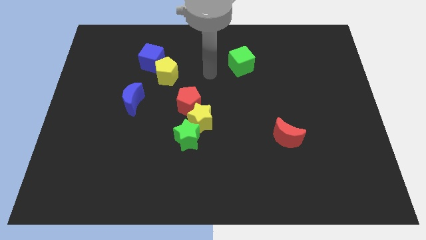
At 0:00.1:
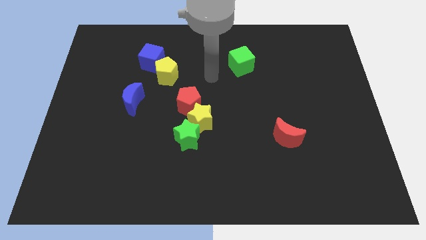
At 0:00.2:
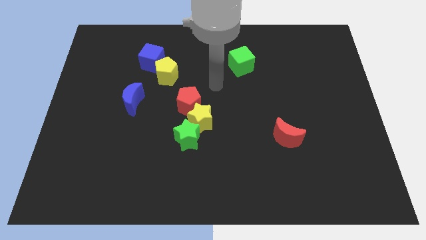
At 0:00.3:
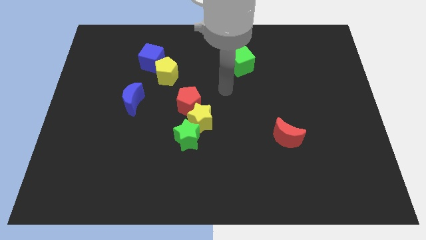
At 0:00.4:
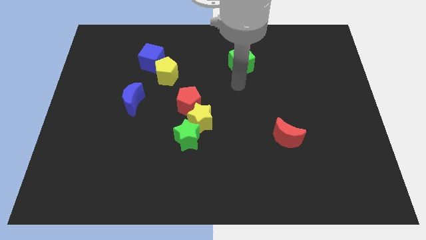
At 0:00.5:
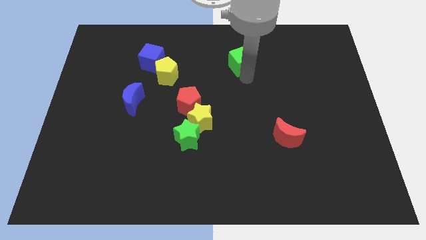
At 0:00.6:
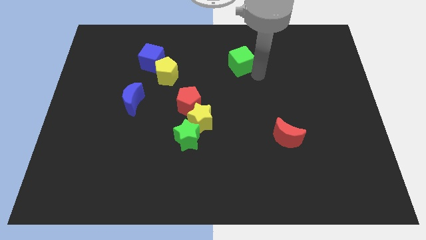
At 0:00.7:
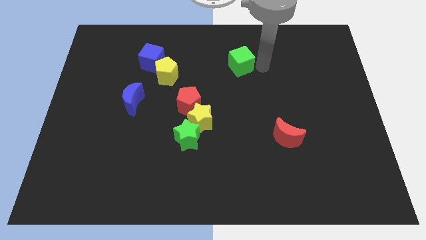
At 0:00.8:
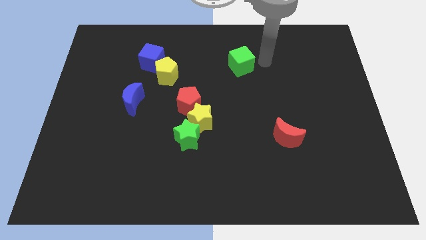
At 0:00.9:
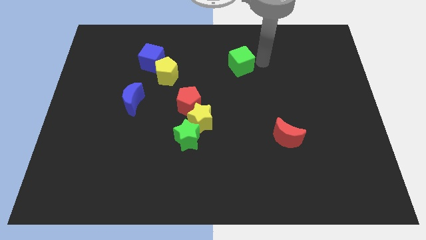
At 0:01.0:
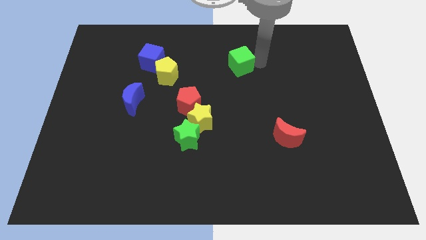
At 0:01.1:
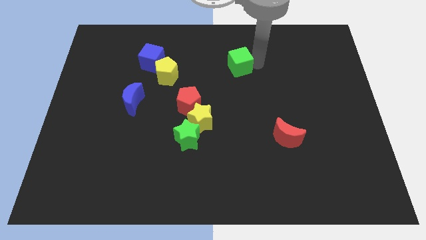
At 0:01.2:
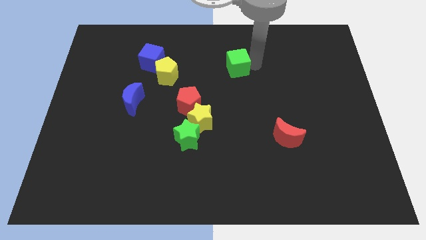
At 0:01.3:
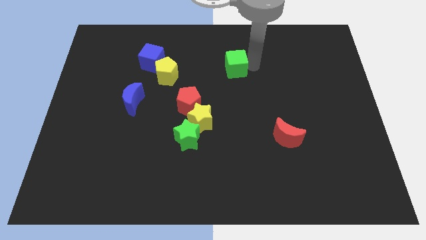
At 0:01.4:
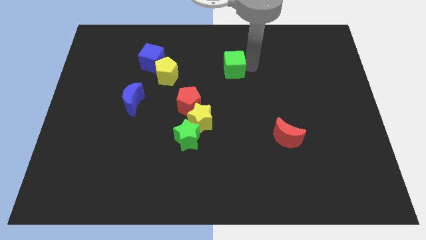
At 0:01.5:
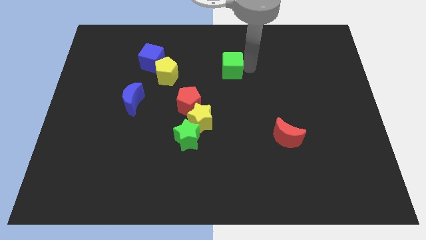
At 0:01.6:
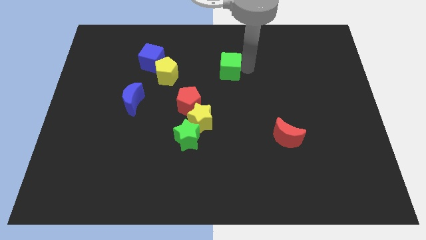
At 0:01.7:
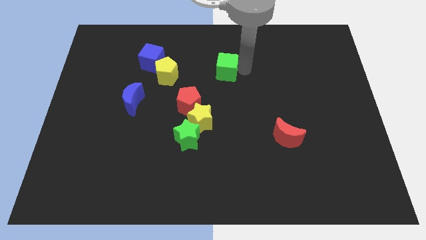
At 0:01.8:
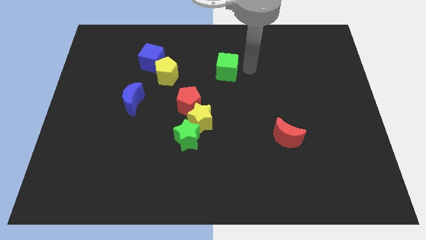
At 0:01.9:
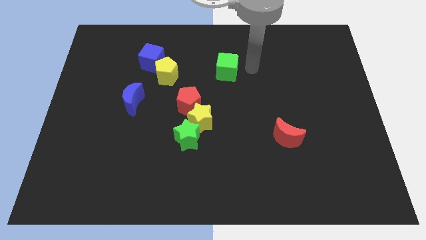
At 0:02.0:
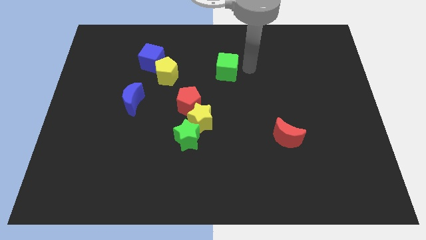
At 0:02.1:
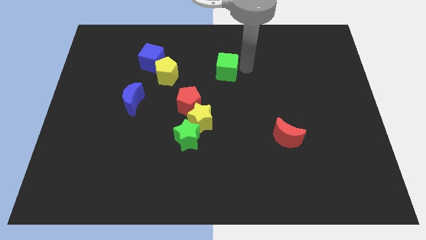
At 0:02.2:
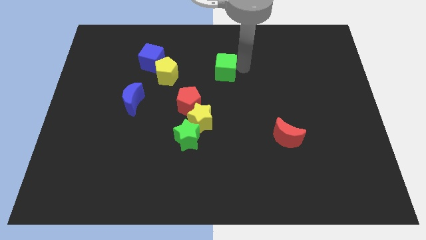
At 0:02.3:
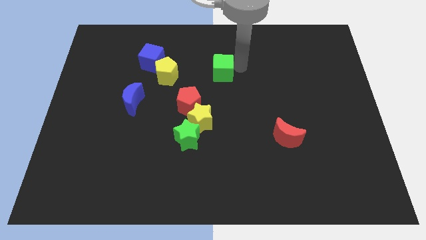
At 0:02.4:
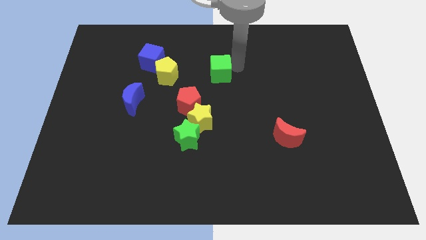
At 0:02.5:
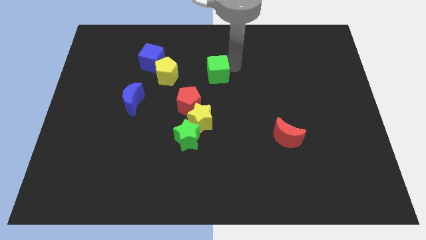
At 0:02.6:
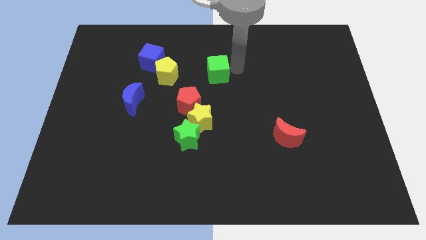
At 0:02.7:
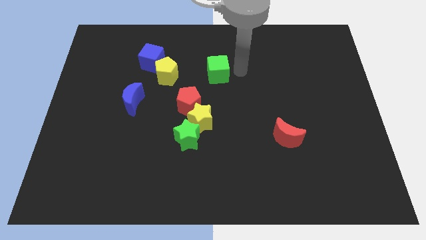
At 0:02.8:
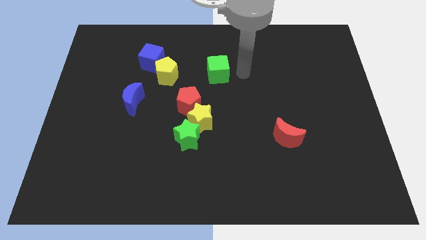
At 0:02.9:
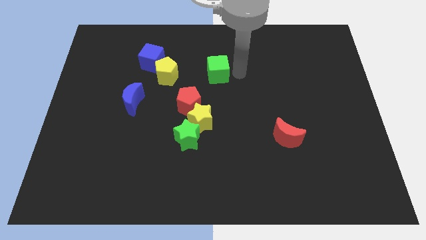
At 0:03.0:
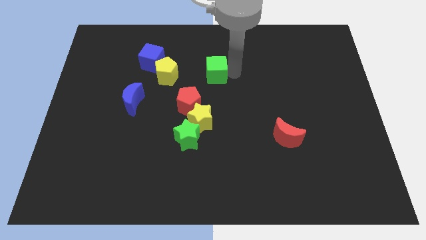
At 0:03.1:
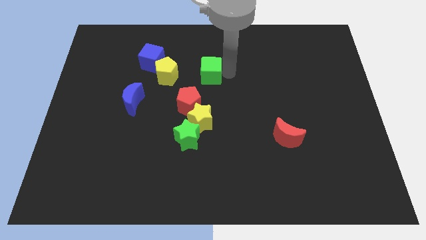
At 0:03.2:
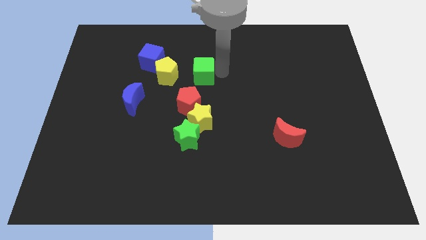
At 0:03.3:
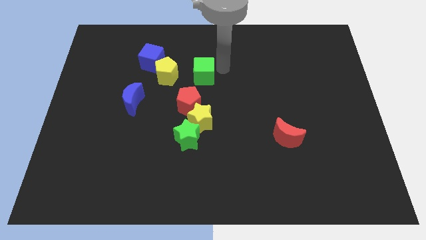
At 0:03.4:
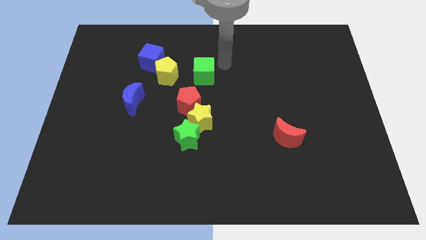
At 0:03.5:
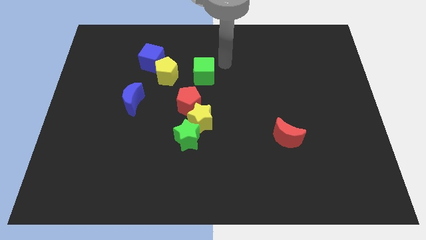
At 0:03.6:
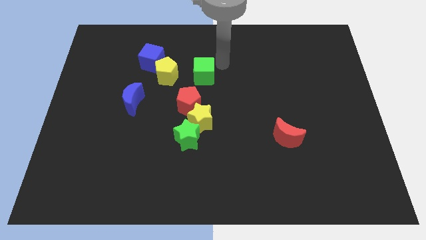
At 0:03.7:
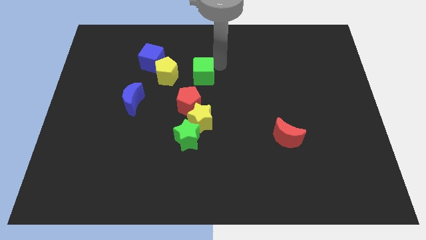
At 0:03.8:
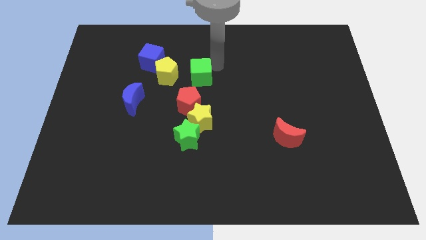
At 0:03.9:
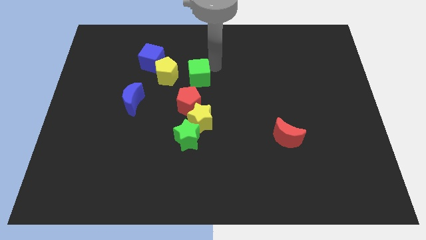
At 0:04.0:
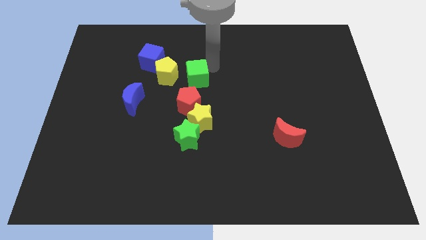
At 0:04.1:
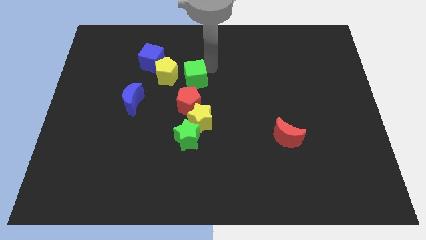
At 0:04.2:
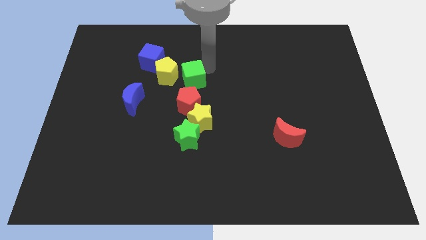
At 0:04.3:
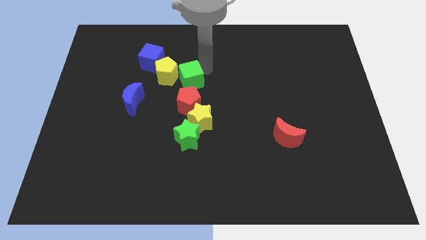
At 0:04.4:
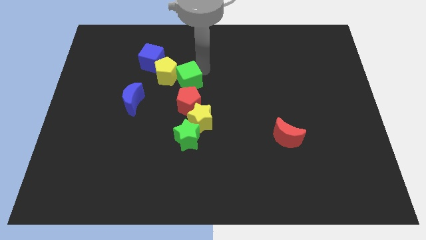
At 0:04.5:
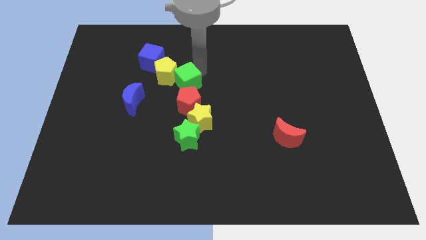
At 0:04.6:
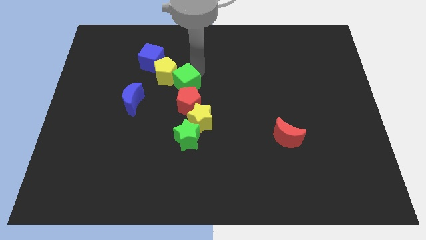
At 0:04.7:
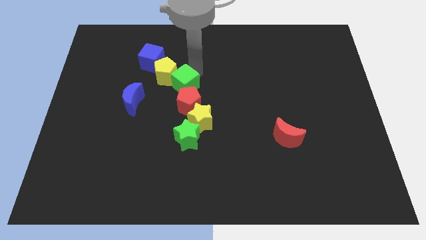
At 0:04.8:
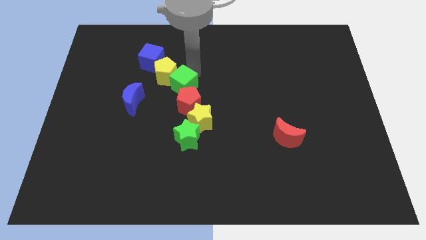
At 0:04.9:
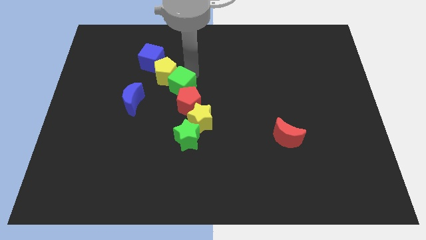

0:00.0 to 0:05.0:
slide the green cube to the bottom of the yellow pentagon

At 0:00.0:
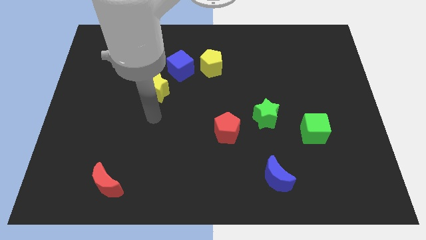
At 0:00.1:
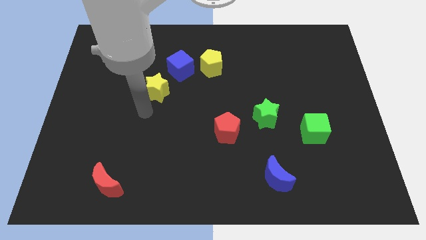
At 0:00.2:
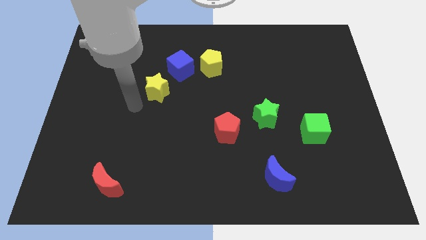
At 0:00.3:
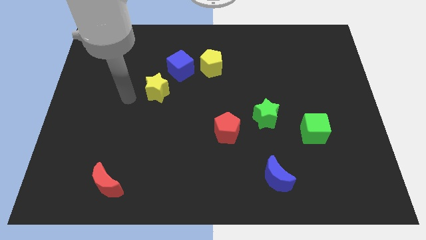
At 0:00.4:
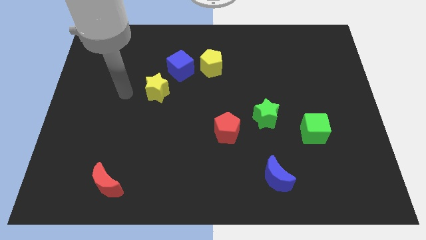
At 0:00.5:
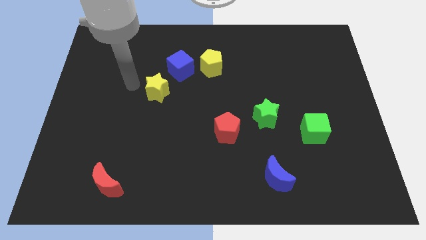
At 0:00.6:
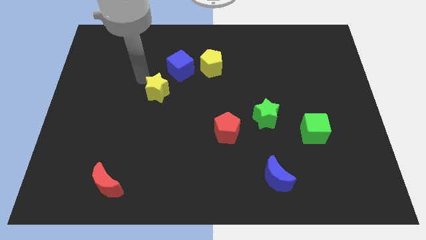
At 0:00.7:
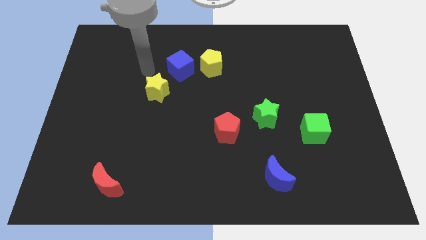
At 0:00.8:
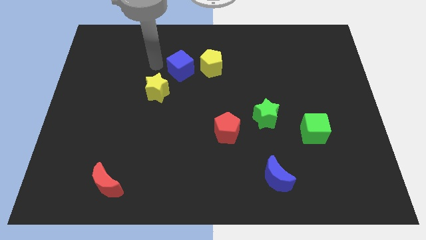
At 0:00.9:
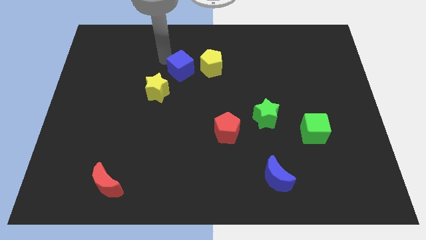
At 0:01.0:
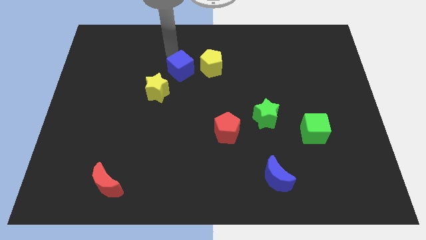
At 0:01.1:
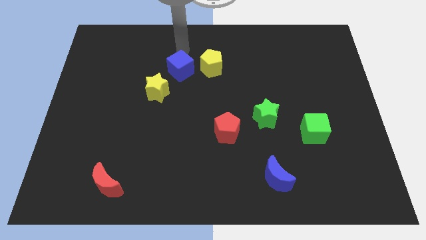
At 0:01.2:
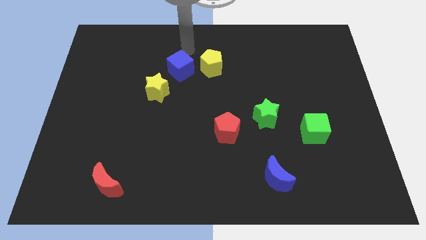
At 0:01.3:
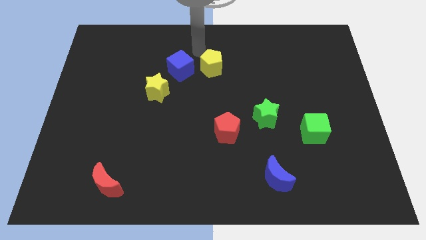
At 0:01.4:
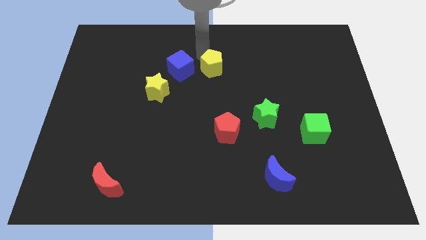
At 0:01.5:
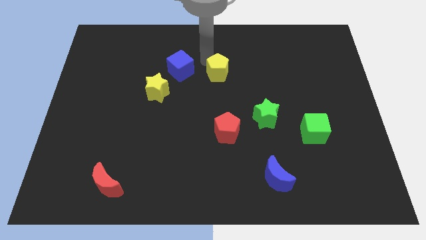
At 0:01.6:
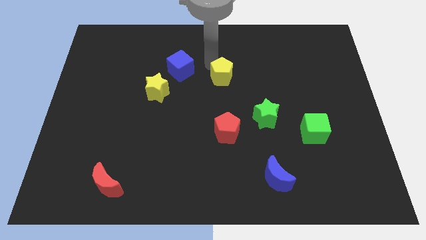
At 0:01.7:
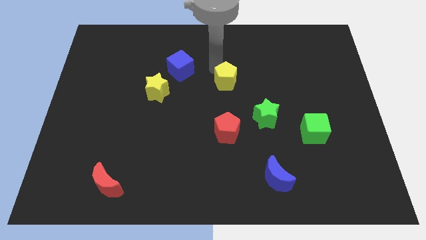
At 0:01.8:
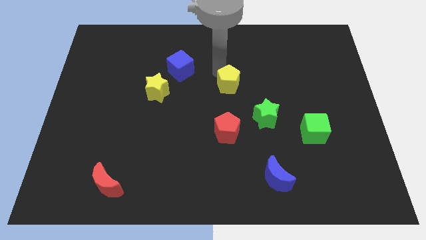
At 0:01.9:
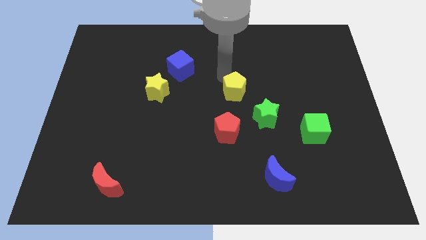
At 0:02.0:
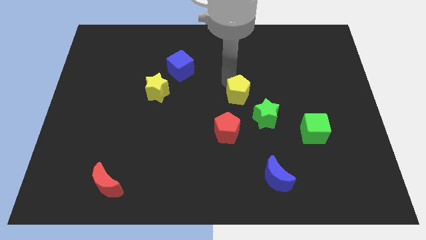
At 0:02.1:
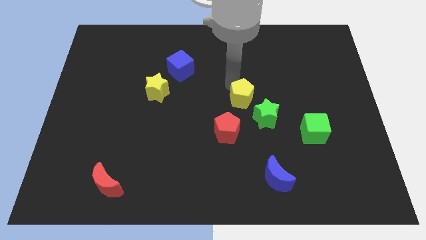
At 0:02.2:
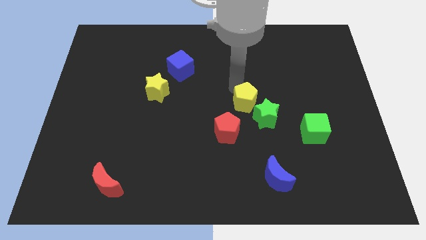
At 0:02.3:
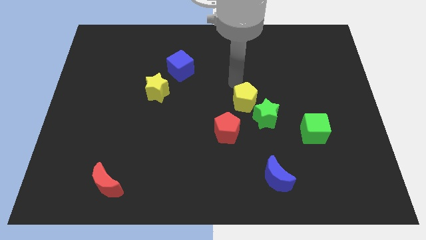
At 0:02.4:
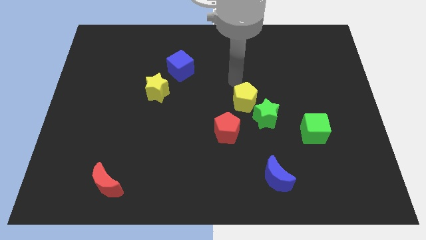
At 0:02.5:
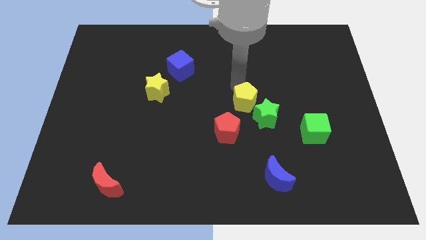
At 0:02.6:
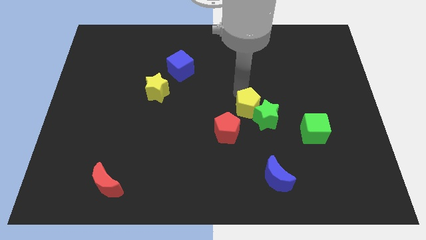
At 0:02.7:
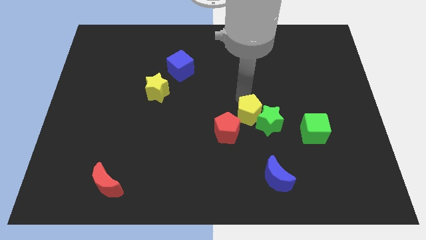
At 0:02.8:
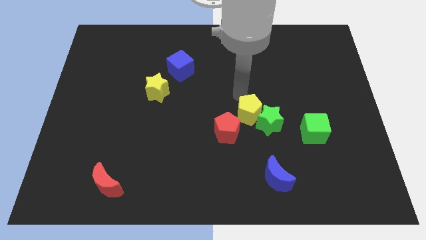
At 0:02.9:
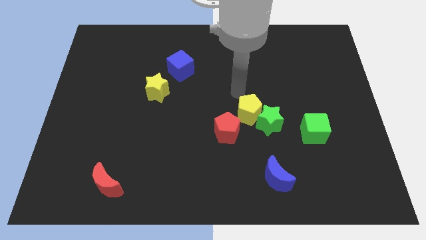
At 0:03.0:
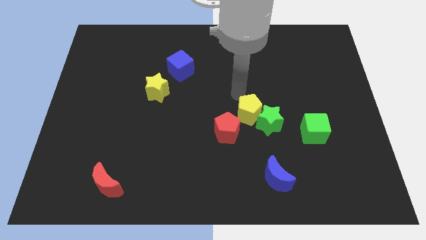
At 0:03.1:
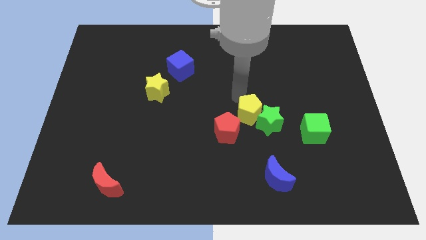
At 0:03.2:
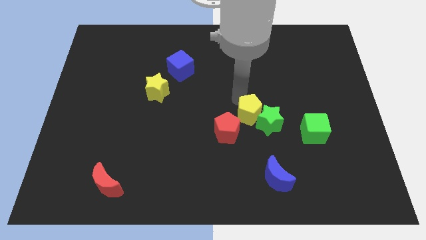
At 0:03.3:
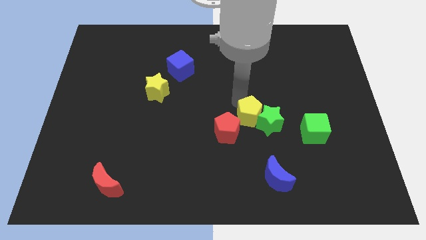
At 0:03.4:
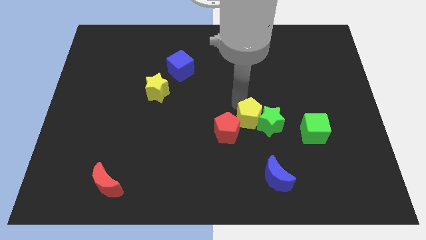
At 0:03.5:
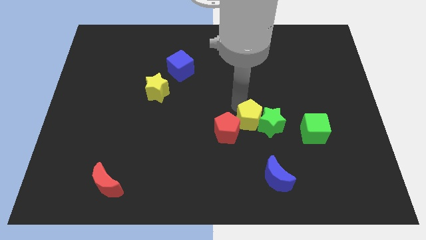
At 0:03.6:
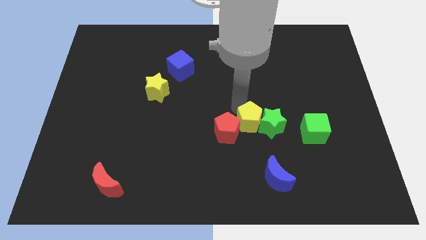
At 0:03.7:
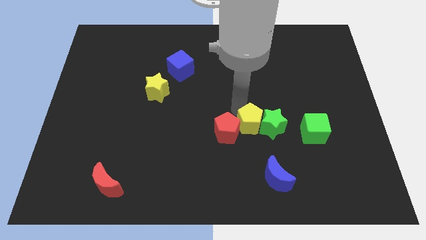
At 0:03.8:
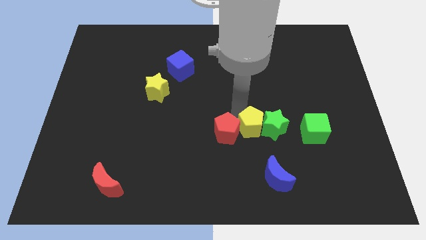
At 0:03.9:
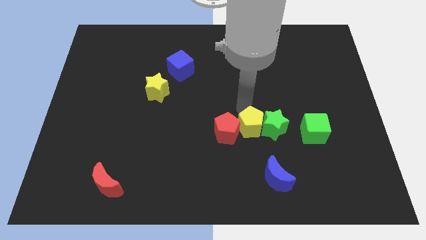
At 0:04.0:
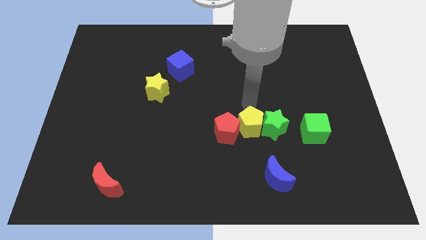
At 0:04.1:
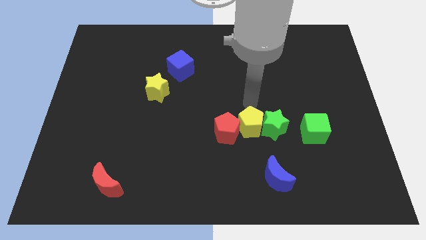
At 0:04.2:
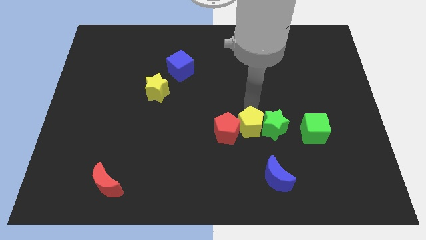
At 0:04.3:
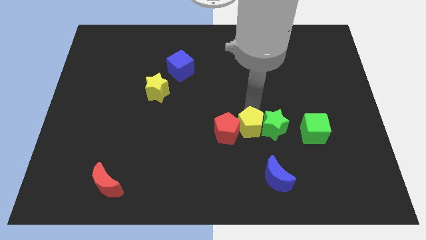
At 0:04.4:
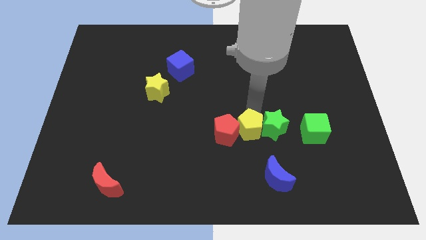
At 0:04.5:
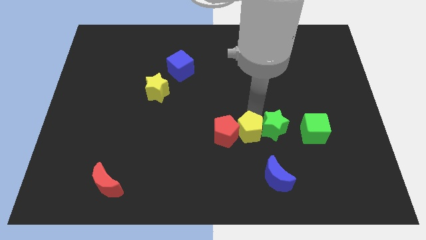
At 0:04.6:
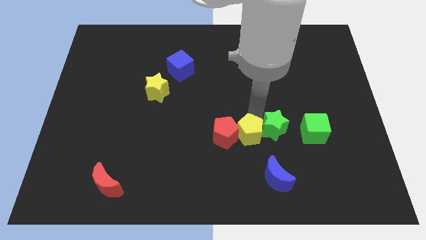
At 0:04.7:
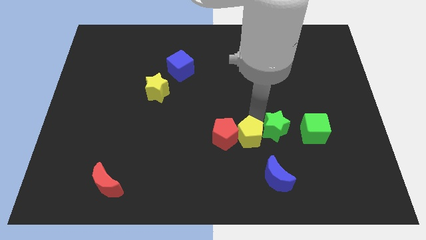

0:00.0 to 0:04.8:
slide the yellow pentagon to the top left of the blue moon
